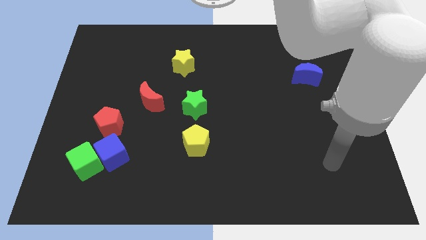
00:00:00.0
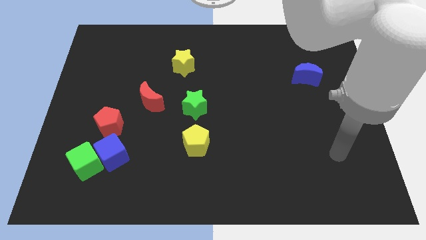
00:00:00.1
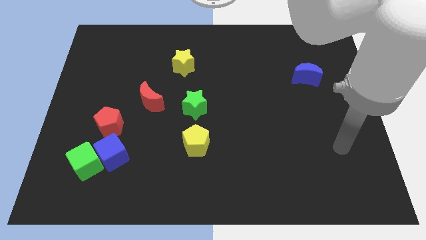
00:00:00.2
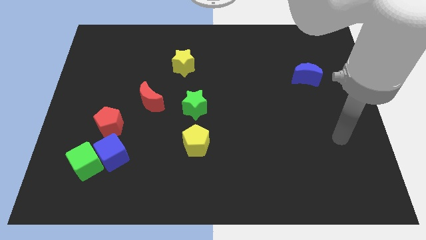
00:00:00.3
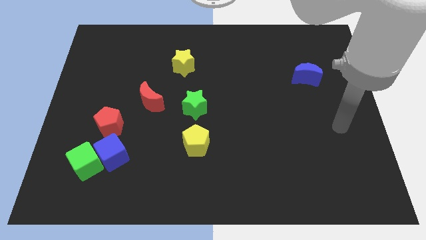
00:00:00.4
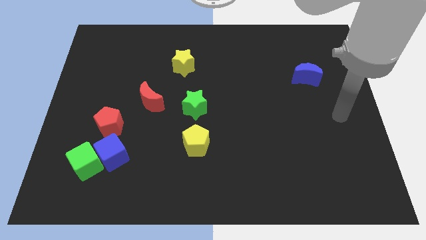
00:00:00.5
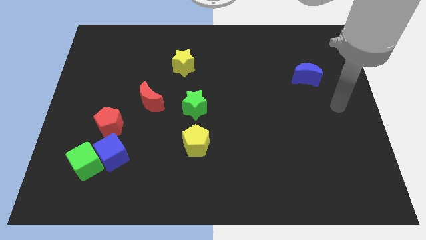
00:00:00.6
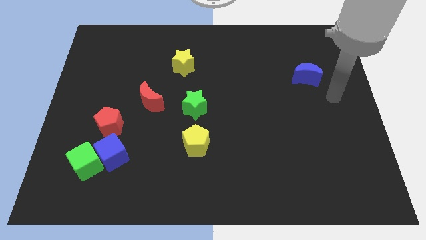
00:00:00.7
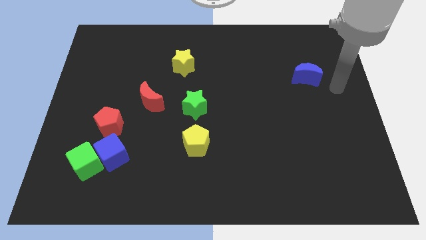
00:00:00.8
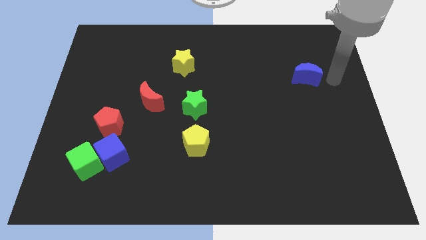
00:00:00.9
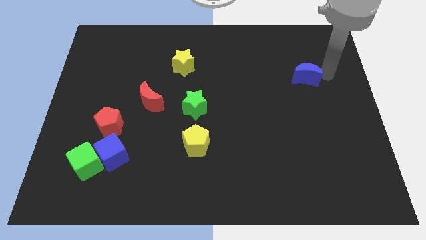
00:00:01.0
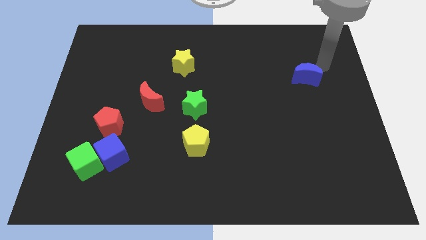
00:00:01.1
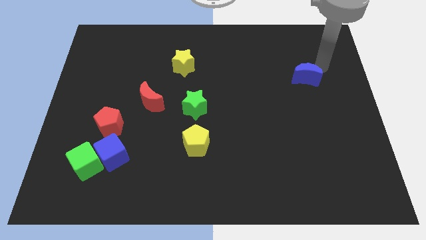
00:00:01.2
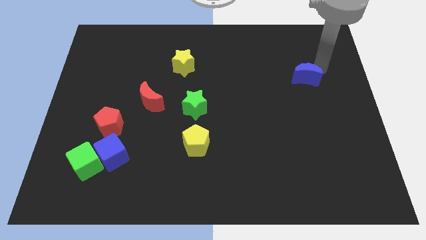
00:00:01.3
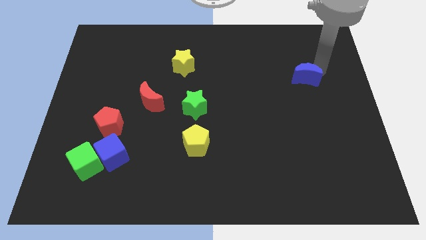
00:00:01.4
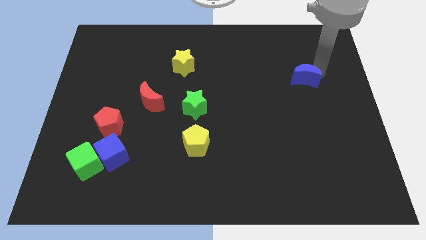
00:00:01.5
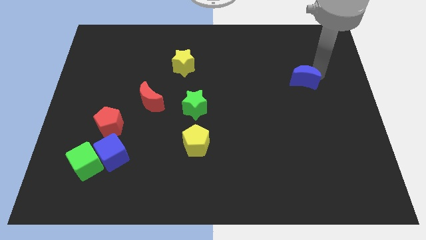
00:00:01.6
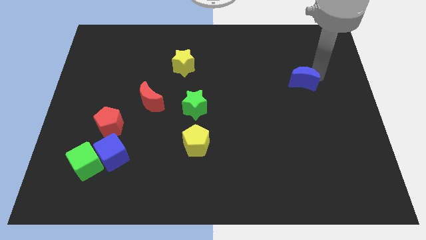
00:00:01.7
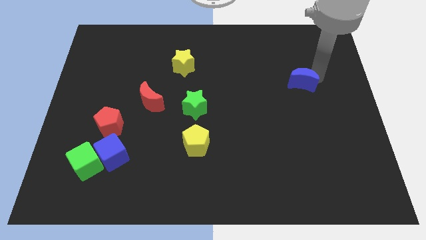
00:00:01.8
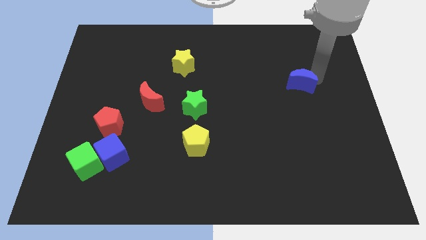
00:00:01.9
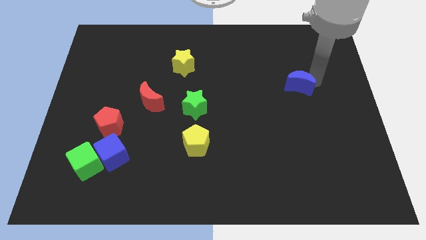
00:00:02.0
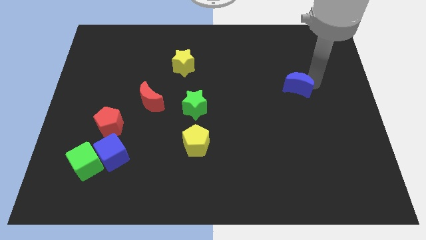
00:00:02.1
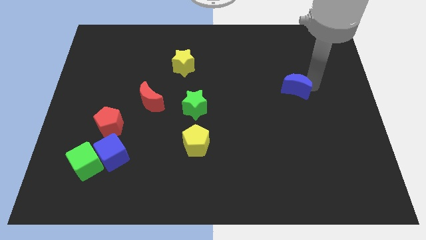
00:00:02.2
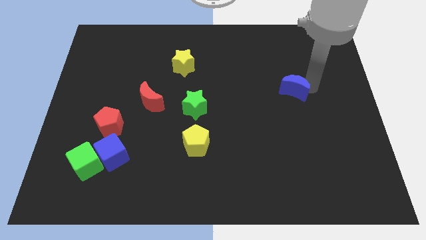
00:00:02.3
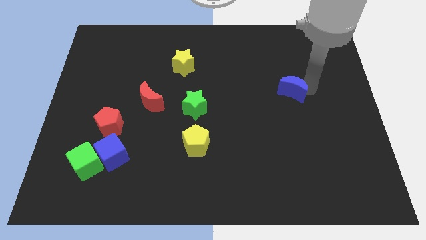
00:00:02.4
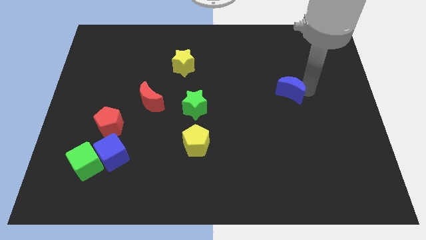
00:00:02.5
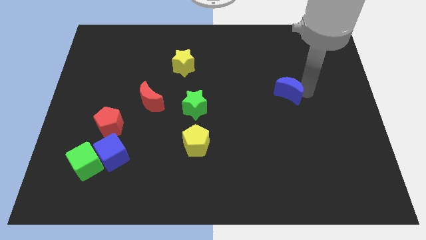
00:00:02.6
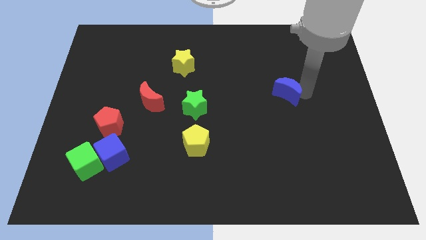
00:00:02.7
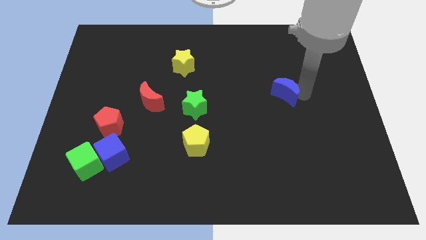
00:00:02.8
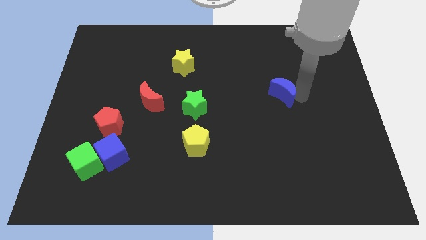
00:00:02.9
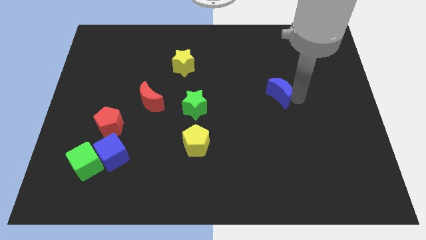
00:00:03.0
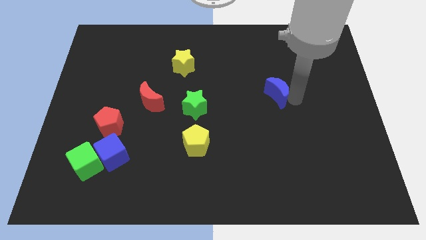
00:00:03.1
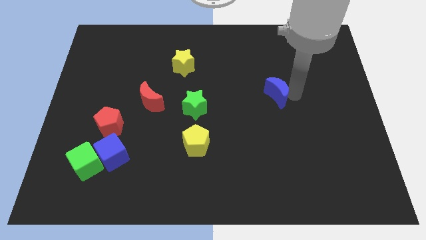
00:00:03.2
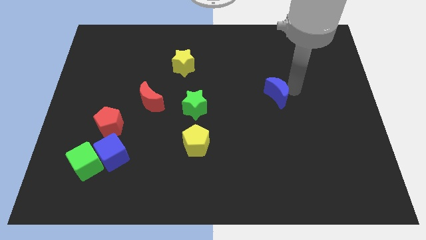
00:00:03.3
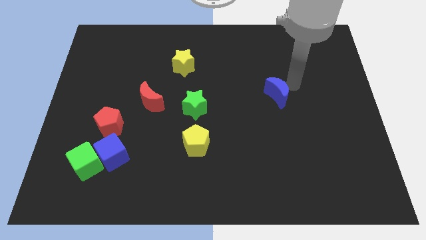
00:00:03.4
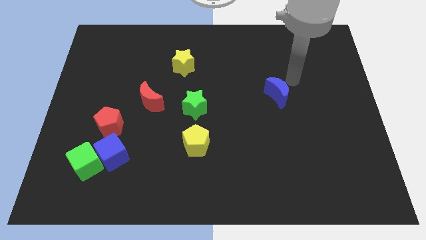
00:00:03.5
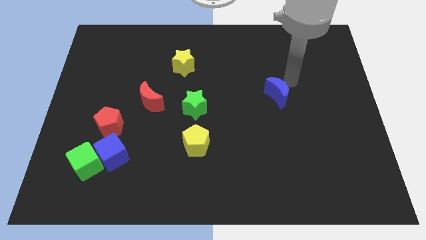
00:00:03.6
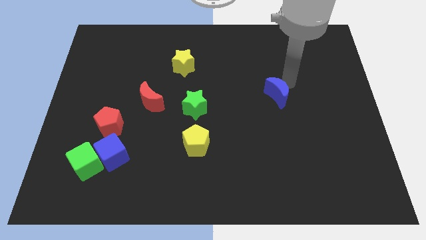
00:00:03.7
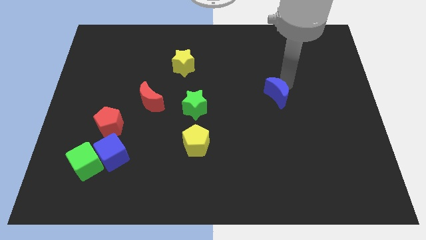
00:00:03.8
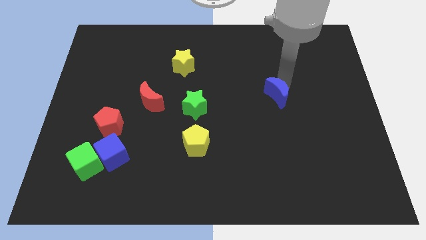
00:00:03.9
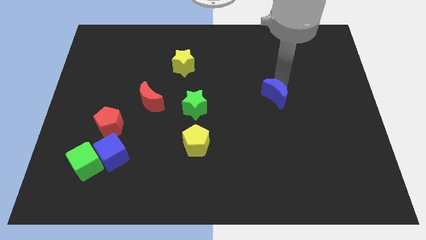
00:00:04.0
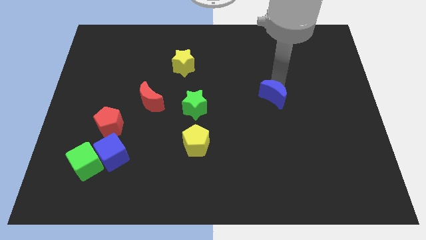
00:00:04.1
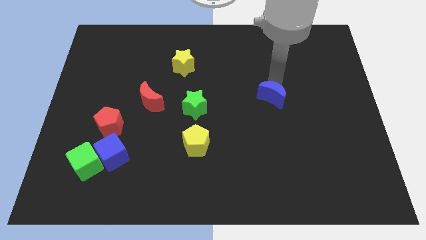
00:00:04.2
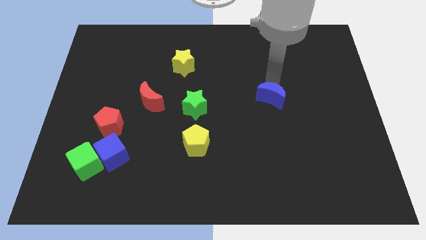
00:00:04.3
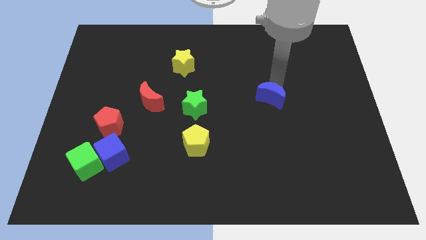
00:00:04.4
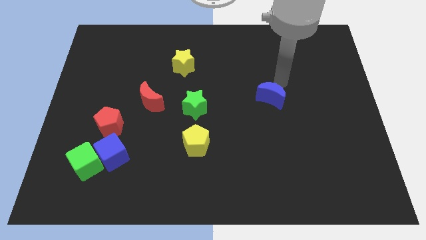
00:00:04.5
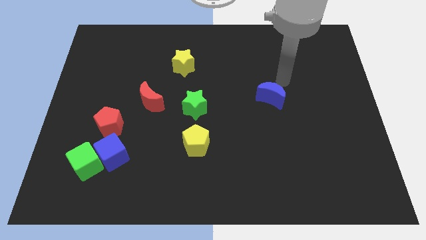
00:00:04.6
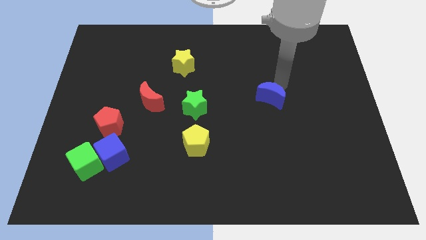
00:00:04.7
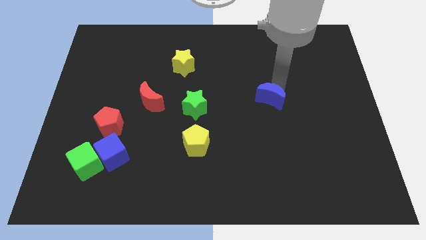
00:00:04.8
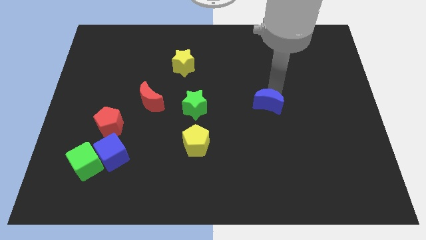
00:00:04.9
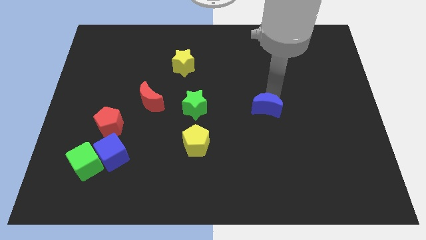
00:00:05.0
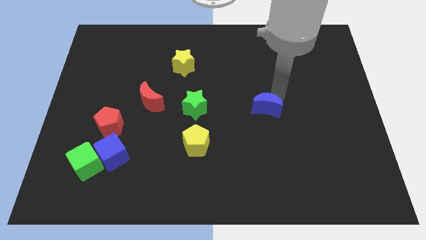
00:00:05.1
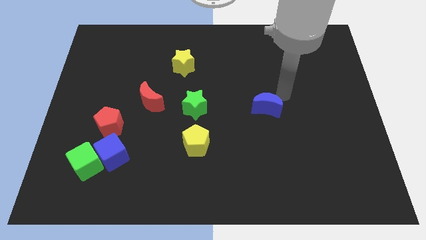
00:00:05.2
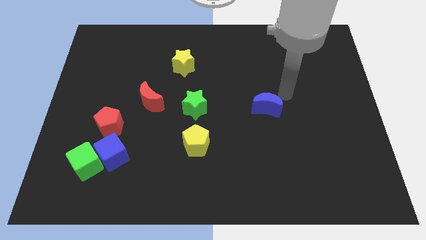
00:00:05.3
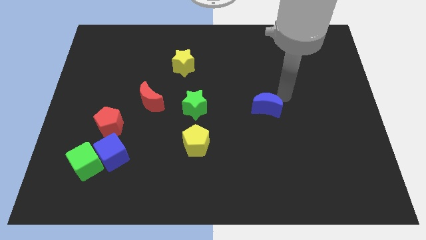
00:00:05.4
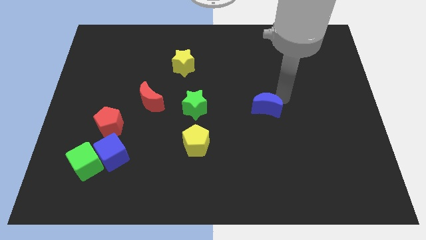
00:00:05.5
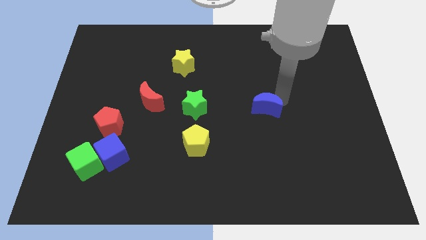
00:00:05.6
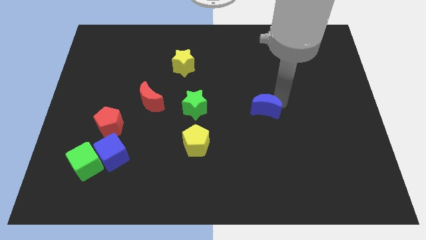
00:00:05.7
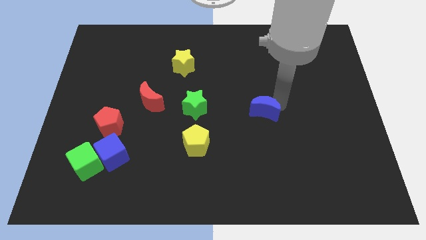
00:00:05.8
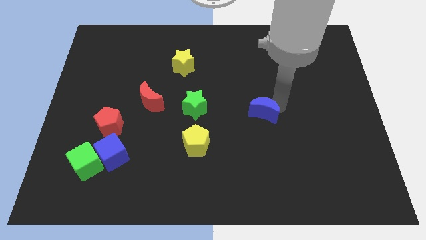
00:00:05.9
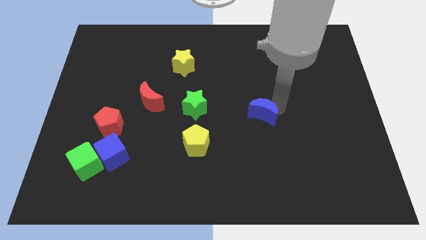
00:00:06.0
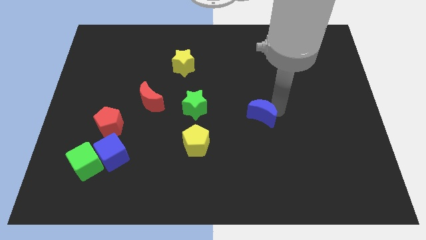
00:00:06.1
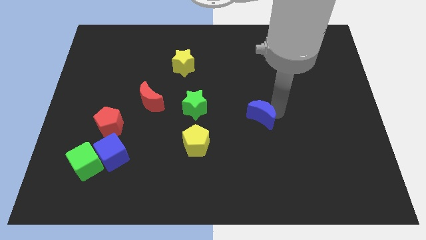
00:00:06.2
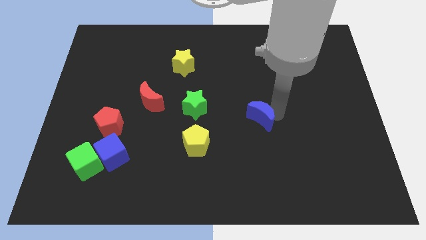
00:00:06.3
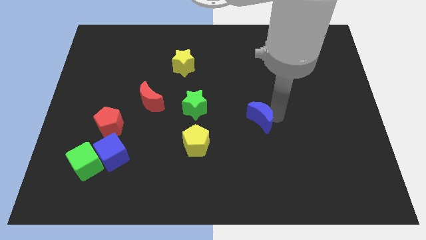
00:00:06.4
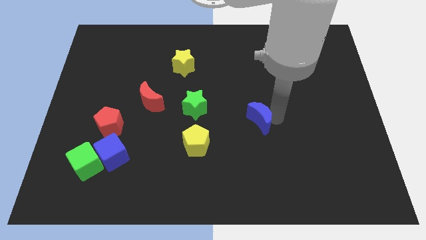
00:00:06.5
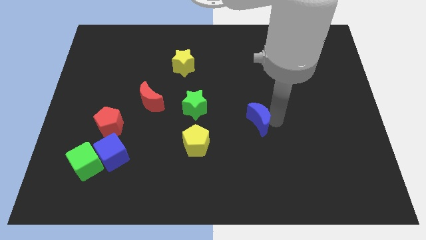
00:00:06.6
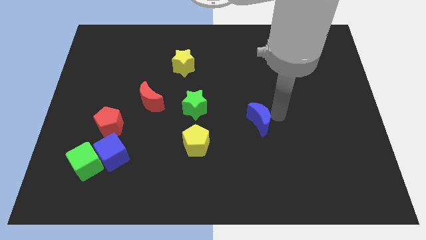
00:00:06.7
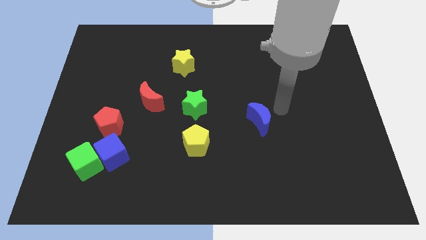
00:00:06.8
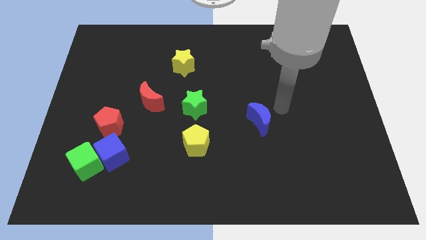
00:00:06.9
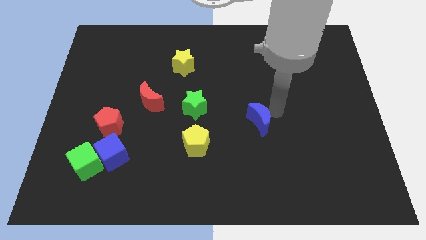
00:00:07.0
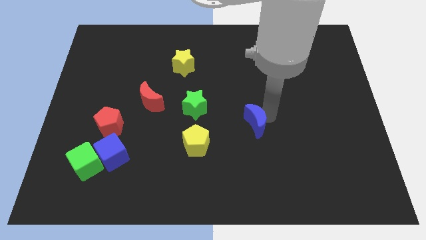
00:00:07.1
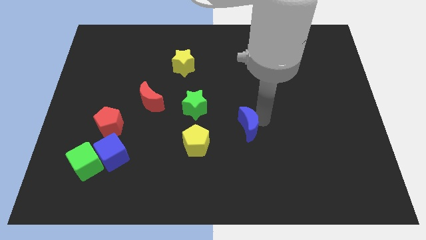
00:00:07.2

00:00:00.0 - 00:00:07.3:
push the blue moon downwards and to the left diagonally
